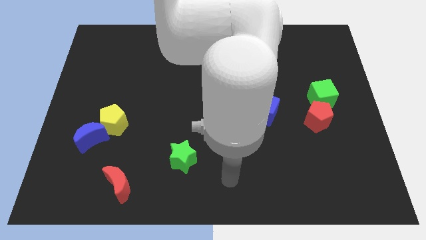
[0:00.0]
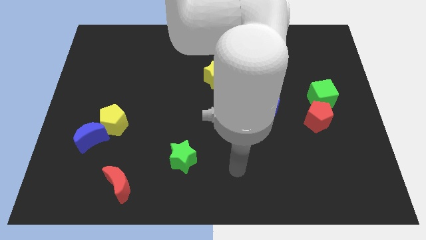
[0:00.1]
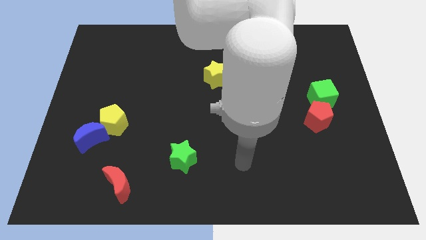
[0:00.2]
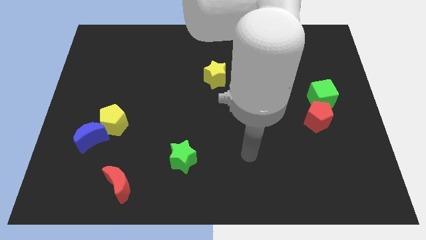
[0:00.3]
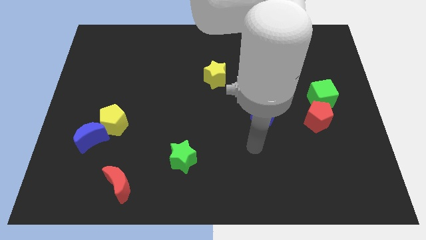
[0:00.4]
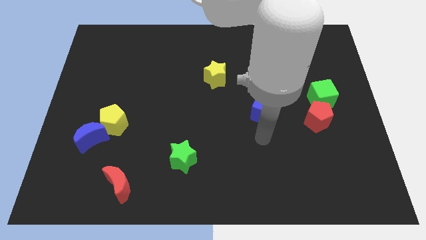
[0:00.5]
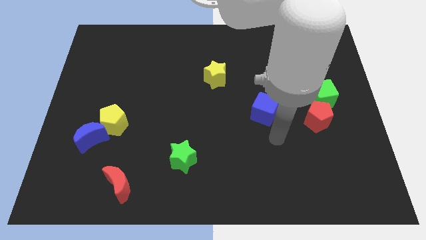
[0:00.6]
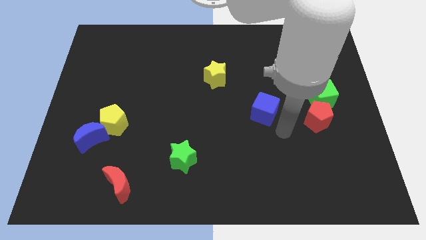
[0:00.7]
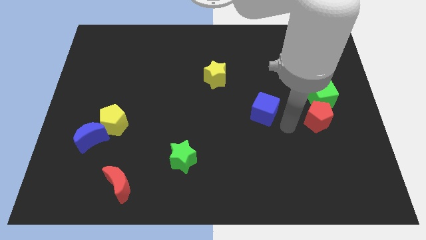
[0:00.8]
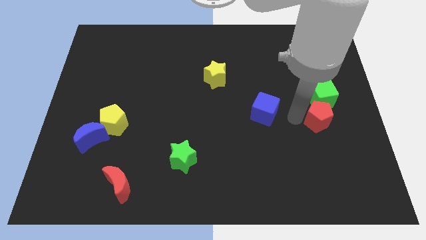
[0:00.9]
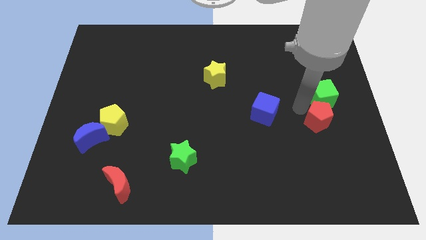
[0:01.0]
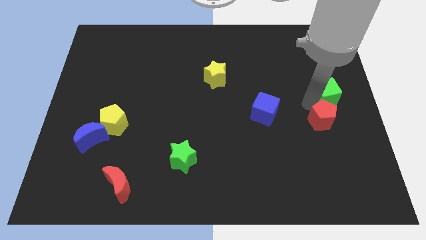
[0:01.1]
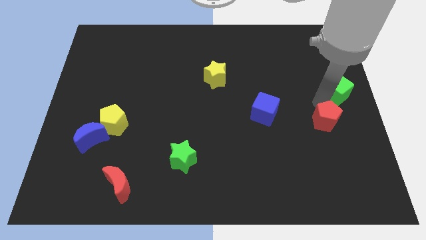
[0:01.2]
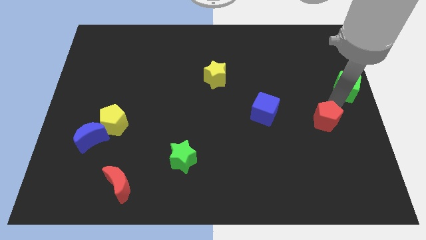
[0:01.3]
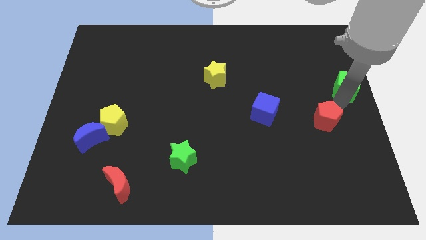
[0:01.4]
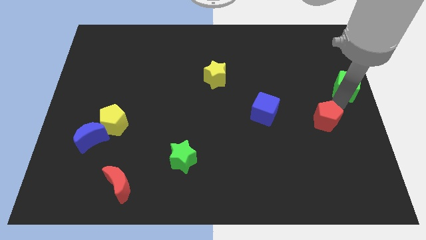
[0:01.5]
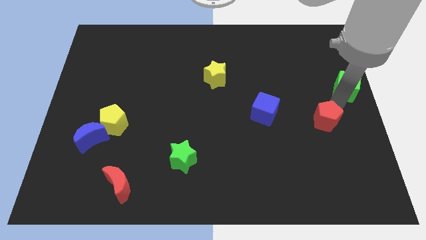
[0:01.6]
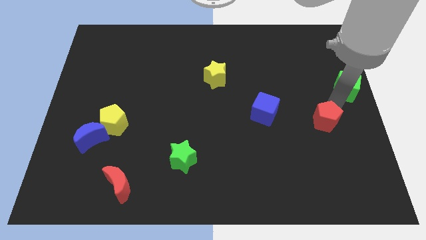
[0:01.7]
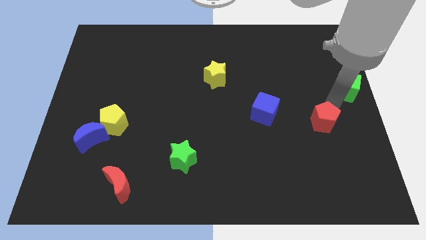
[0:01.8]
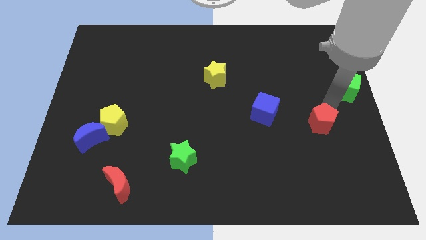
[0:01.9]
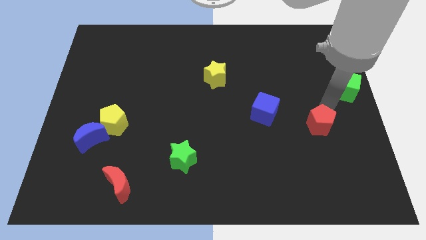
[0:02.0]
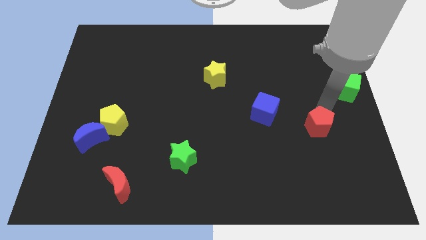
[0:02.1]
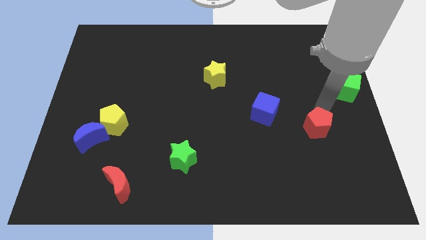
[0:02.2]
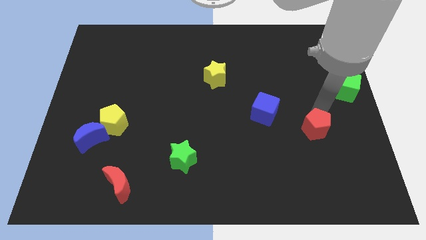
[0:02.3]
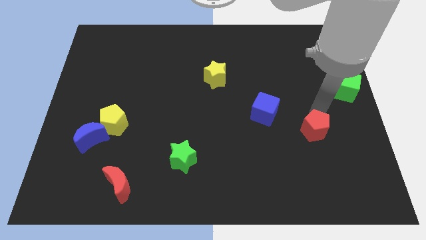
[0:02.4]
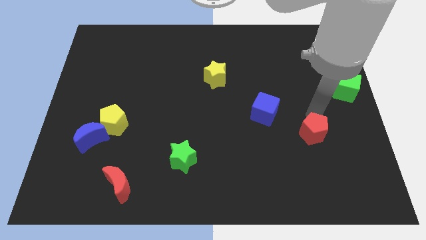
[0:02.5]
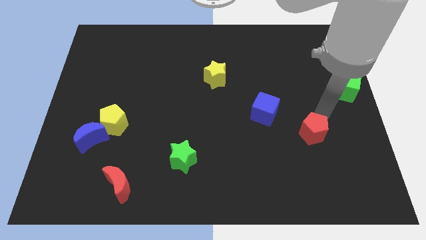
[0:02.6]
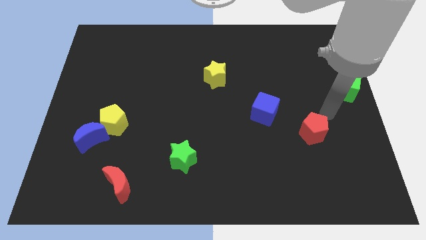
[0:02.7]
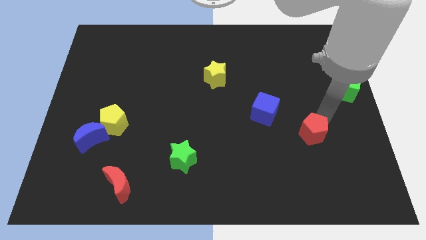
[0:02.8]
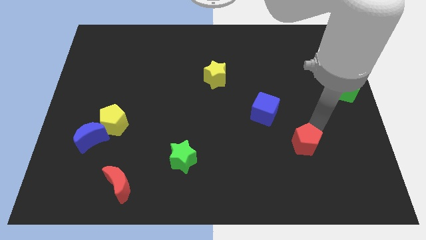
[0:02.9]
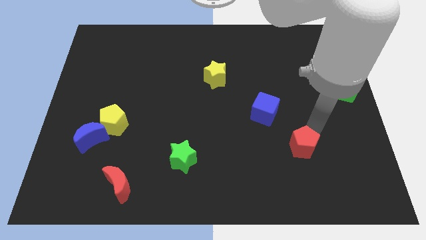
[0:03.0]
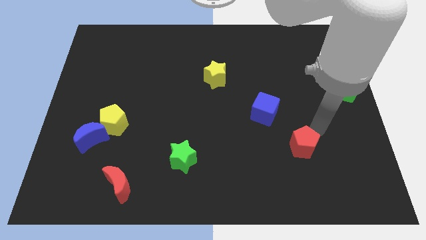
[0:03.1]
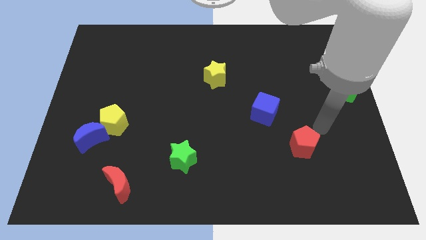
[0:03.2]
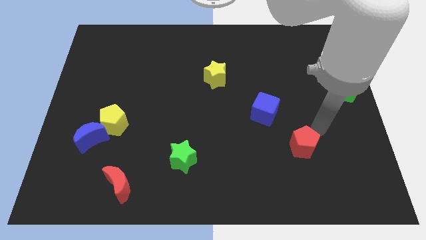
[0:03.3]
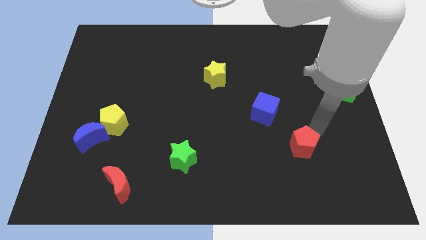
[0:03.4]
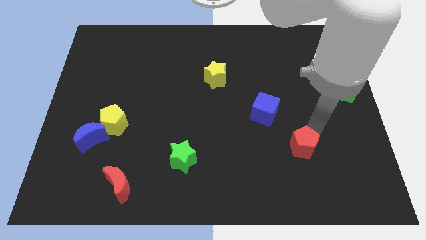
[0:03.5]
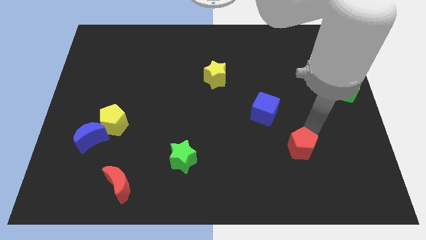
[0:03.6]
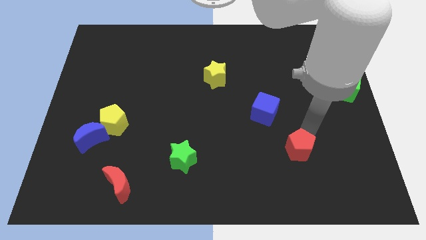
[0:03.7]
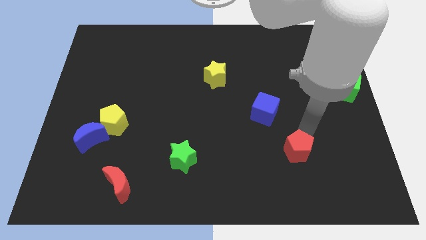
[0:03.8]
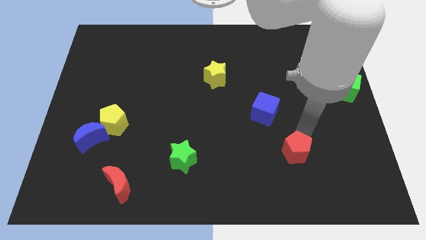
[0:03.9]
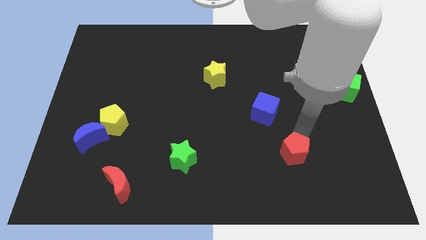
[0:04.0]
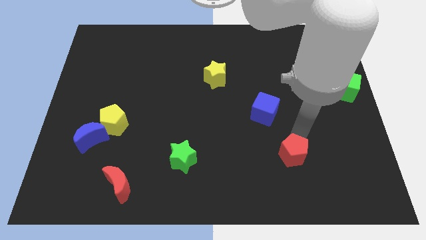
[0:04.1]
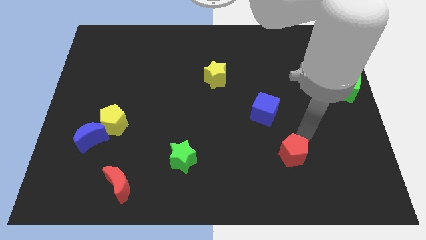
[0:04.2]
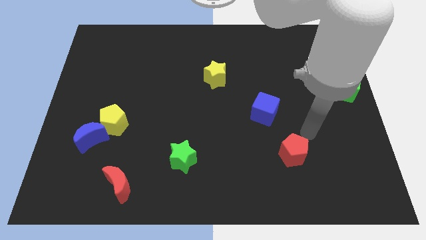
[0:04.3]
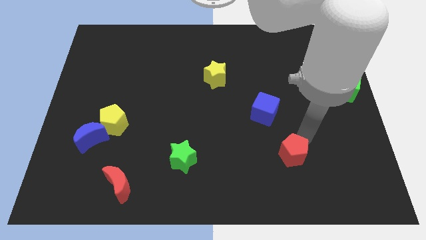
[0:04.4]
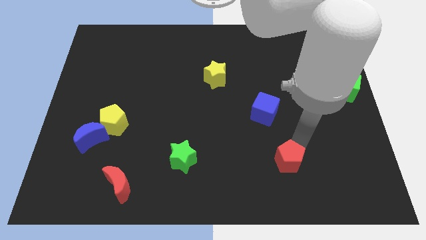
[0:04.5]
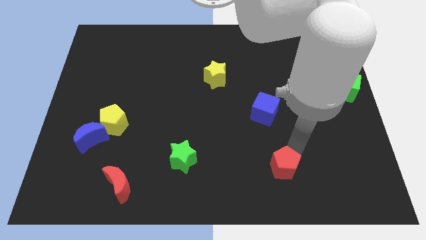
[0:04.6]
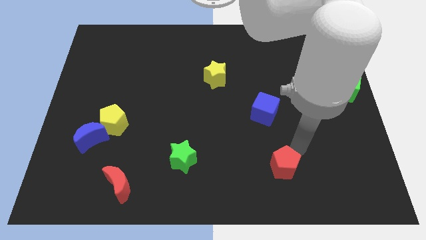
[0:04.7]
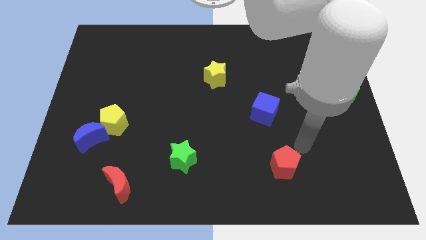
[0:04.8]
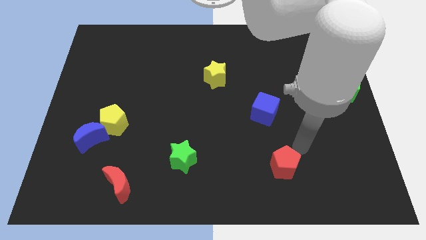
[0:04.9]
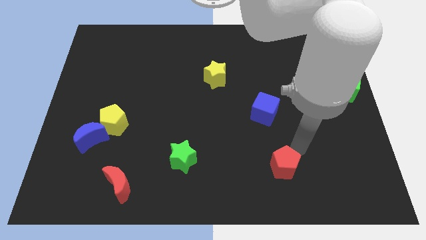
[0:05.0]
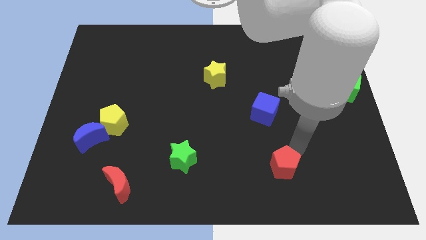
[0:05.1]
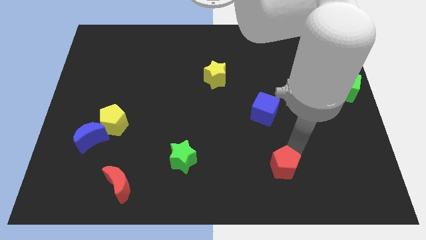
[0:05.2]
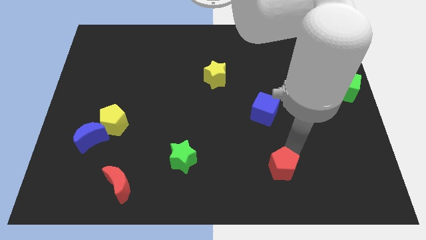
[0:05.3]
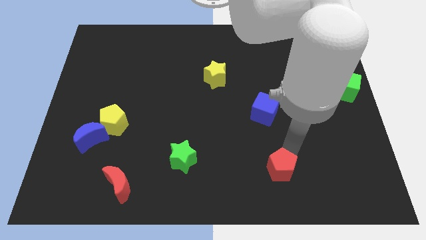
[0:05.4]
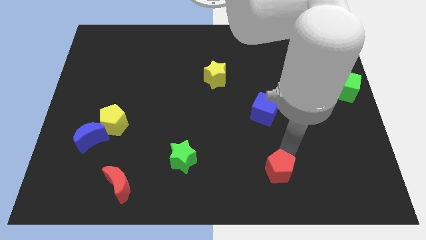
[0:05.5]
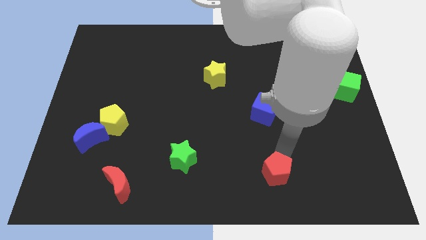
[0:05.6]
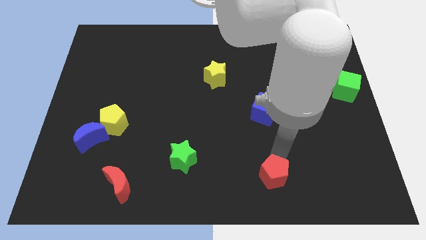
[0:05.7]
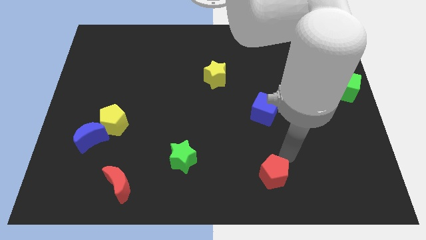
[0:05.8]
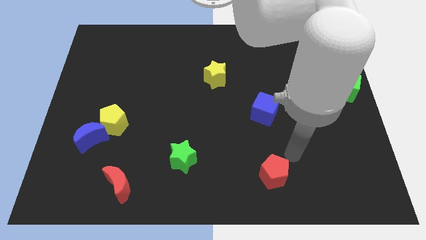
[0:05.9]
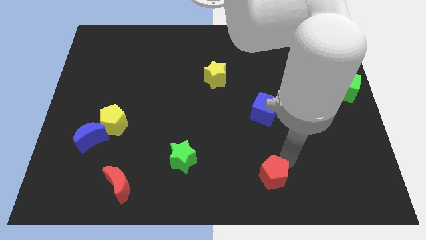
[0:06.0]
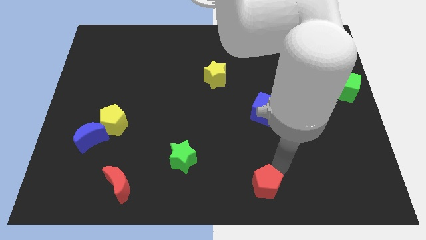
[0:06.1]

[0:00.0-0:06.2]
put the red pentagon to the bottom

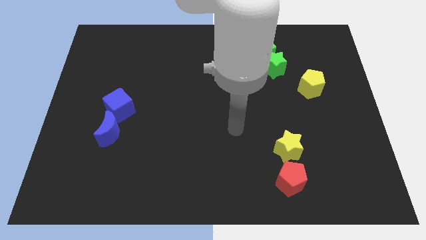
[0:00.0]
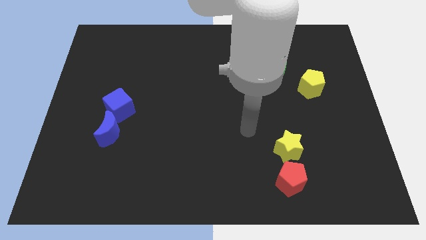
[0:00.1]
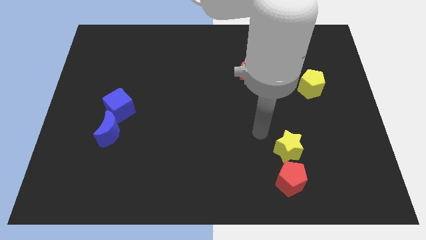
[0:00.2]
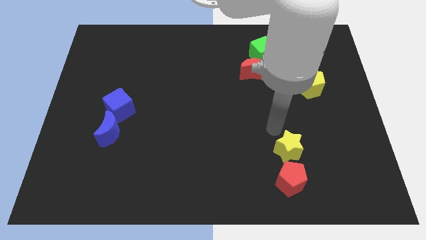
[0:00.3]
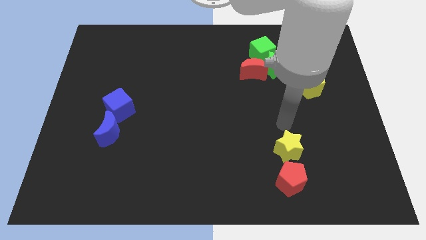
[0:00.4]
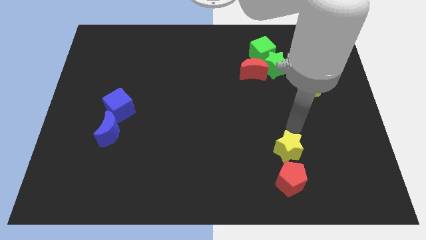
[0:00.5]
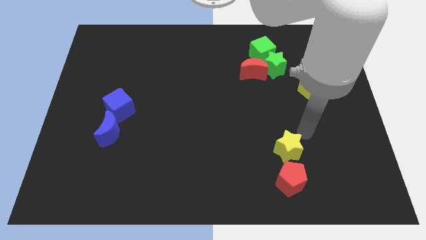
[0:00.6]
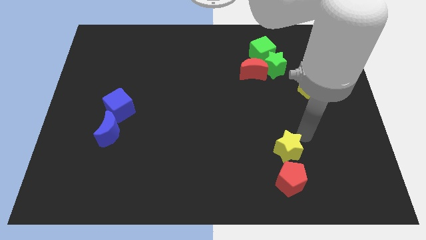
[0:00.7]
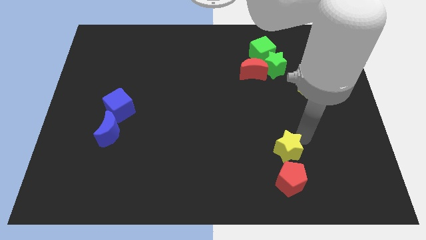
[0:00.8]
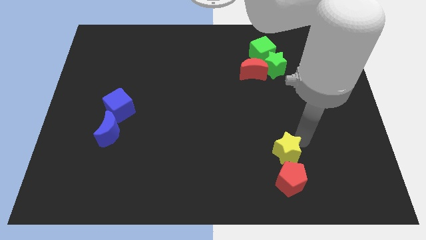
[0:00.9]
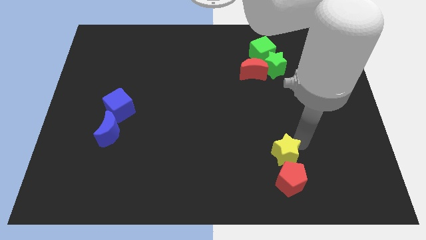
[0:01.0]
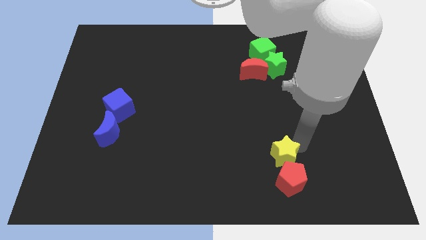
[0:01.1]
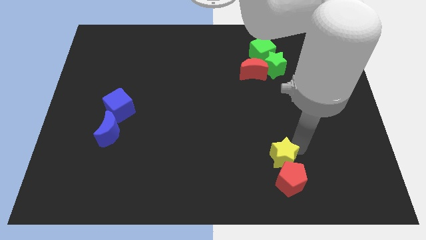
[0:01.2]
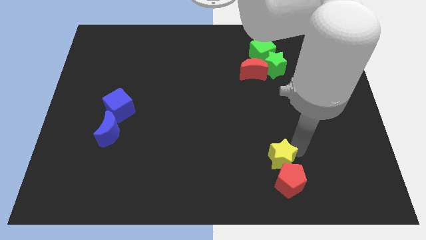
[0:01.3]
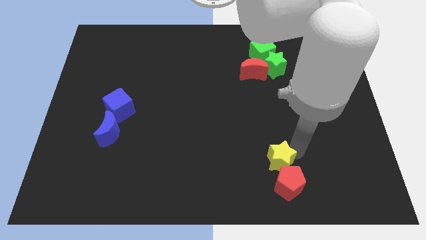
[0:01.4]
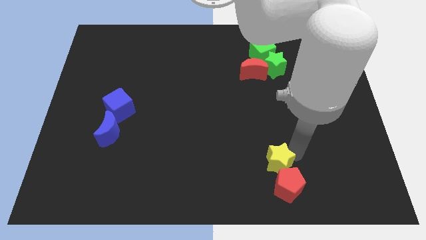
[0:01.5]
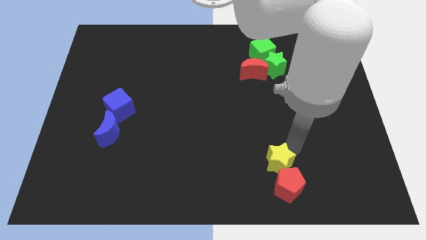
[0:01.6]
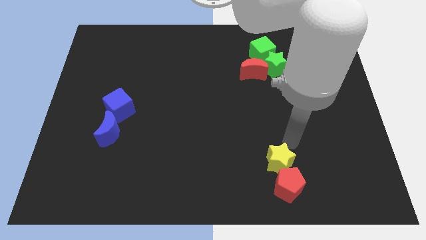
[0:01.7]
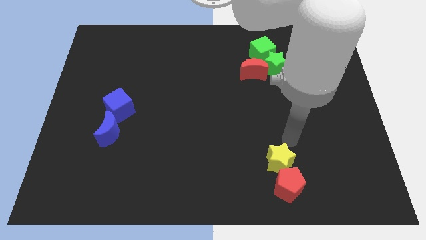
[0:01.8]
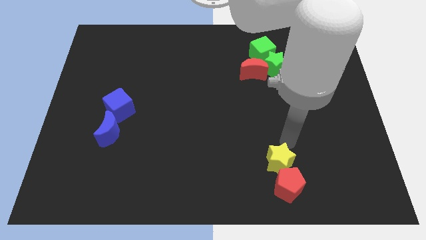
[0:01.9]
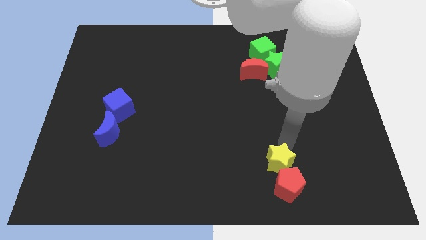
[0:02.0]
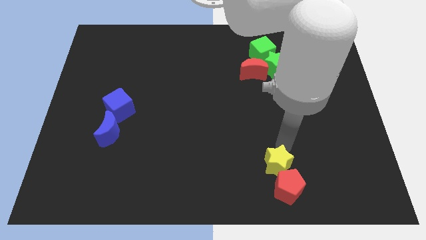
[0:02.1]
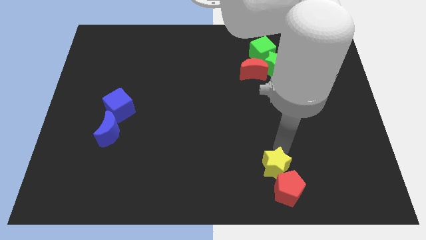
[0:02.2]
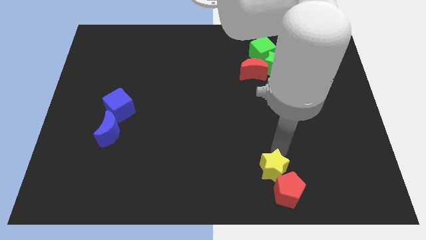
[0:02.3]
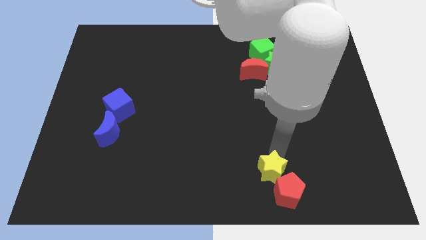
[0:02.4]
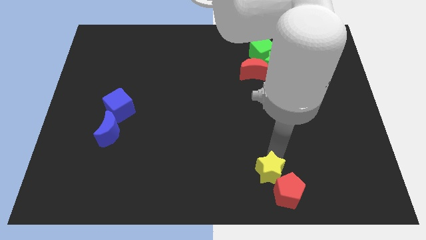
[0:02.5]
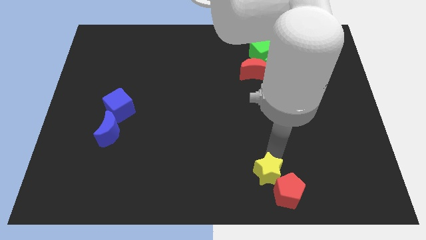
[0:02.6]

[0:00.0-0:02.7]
slide the yellow star to the bottom side
